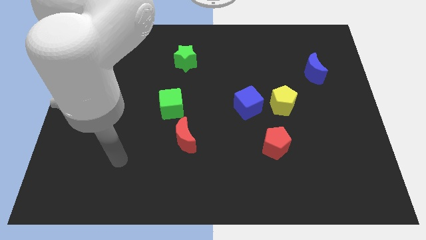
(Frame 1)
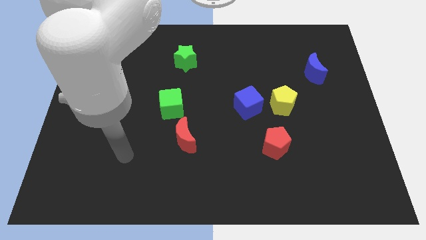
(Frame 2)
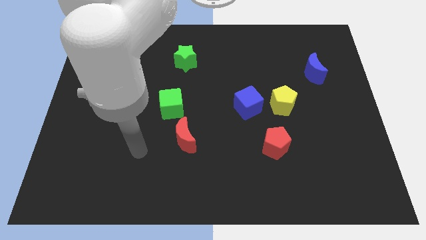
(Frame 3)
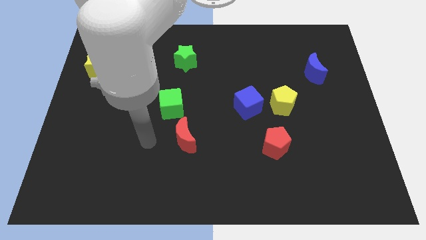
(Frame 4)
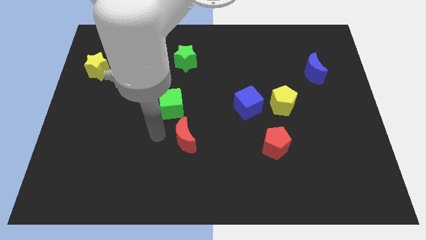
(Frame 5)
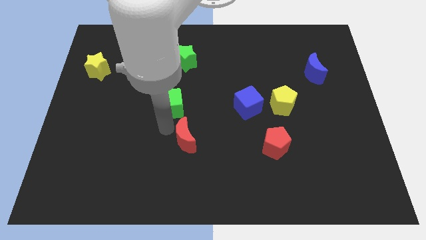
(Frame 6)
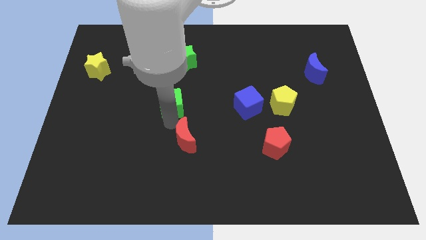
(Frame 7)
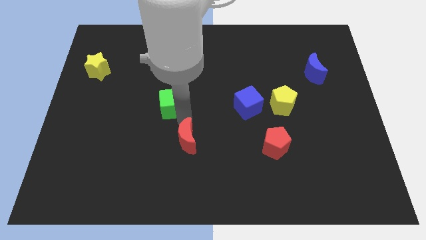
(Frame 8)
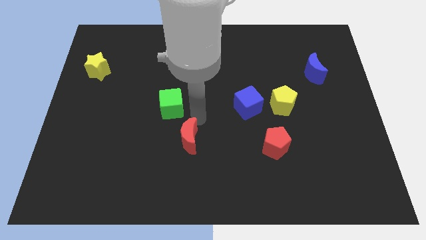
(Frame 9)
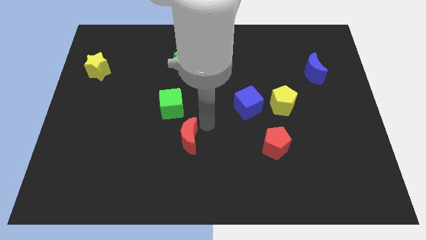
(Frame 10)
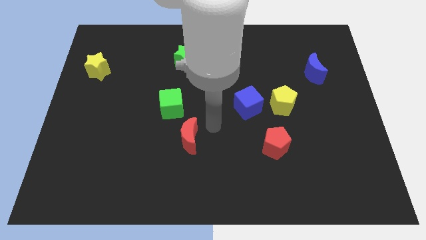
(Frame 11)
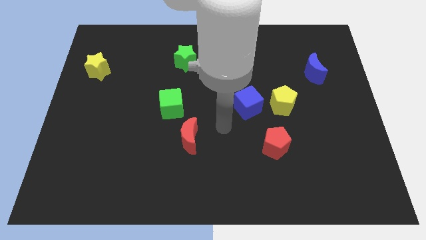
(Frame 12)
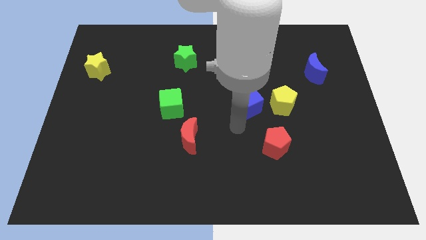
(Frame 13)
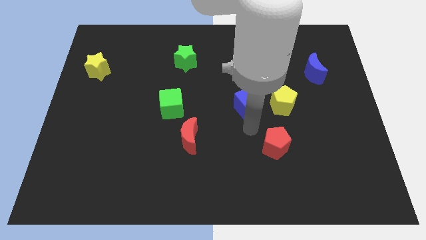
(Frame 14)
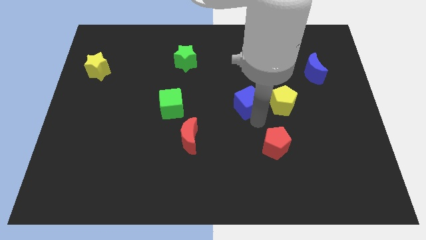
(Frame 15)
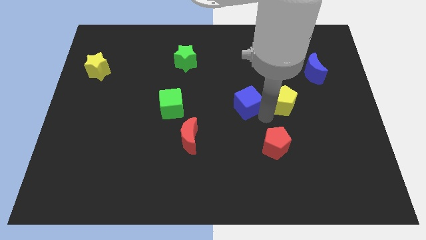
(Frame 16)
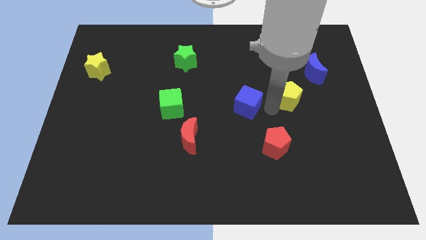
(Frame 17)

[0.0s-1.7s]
pull the blue cube apart from the yellow pentagon

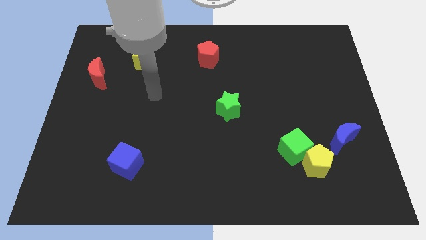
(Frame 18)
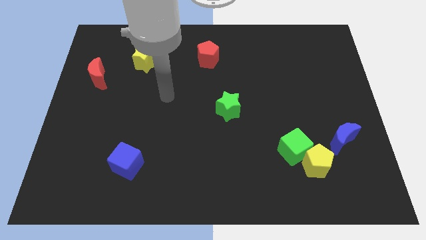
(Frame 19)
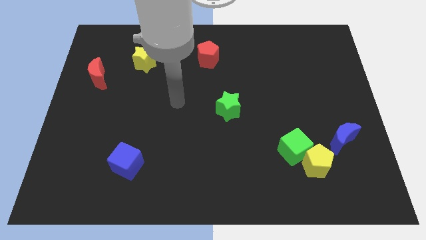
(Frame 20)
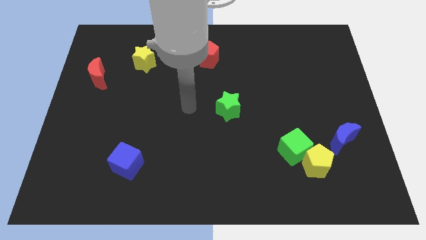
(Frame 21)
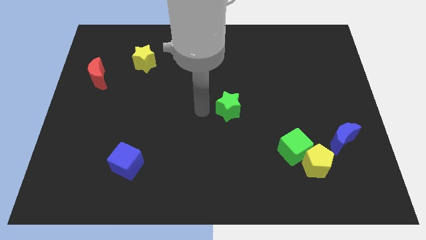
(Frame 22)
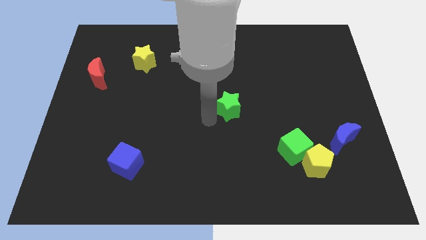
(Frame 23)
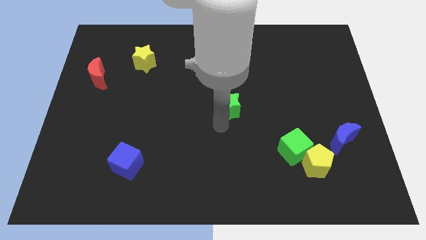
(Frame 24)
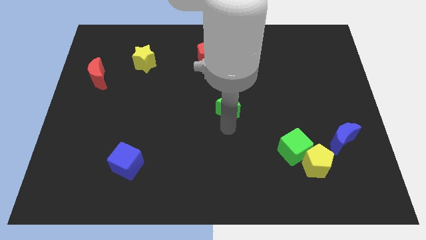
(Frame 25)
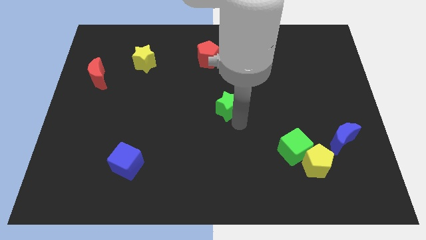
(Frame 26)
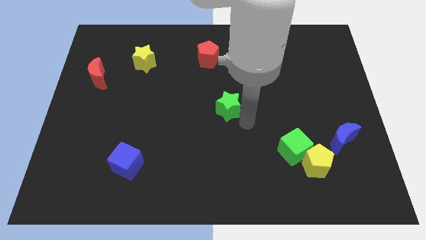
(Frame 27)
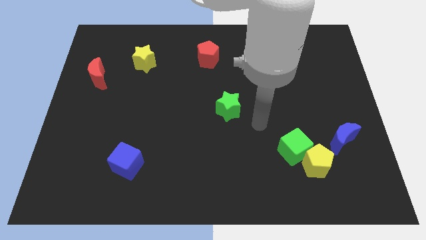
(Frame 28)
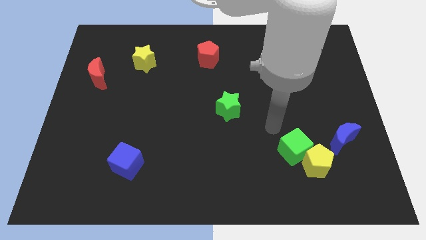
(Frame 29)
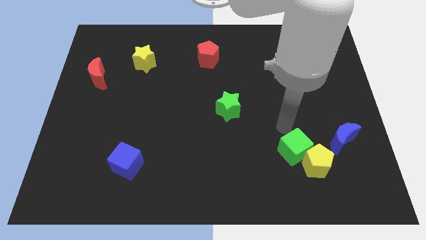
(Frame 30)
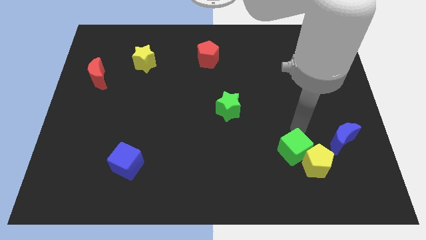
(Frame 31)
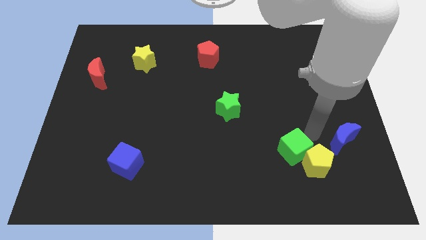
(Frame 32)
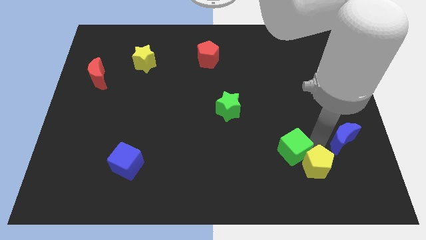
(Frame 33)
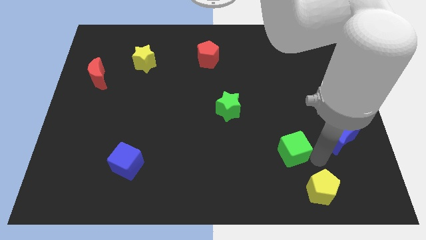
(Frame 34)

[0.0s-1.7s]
pull the green cube apart from the yellow pentagon

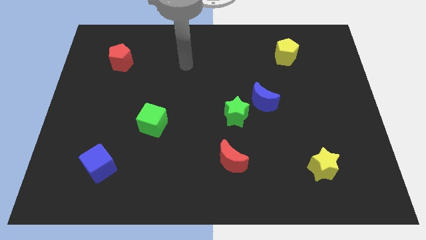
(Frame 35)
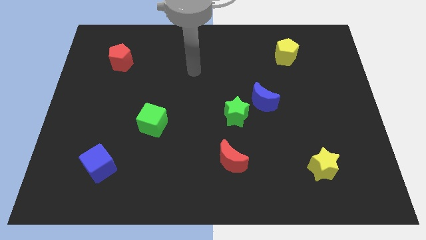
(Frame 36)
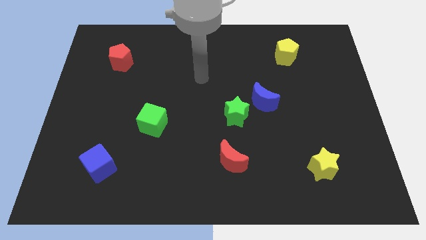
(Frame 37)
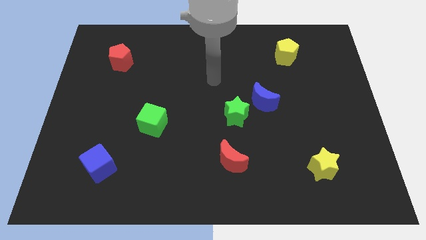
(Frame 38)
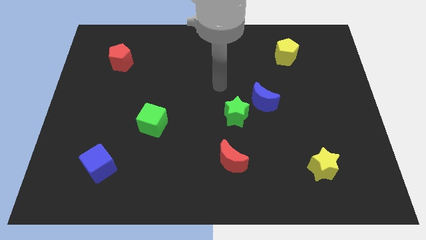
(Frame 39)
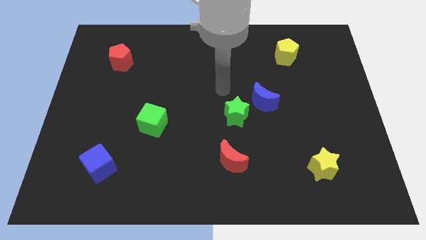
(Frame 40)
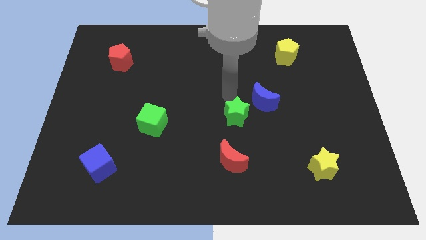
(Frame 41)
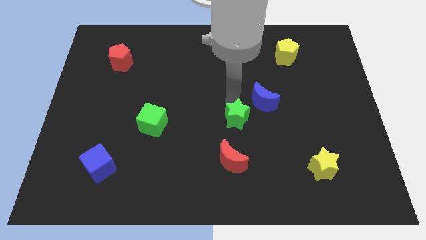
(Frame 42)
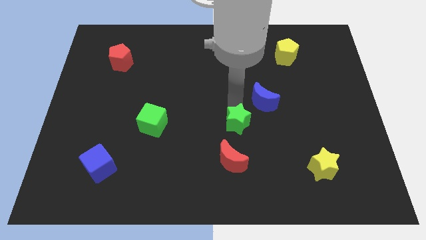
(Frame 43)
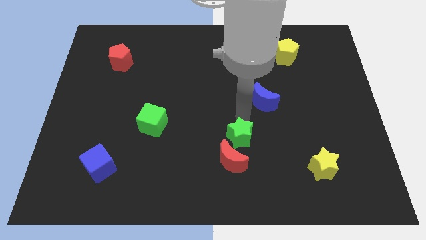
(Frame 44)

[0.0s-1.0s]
pull the blue moon apart from the green star

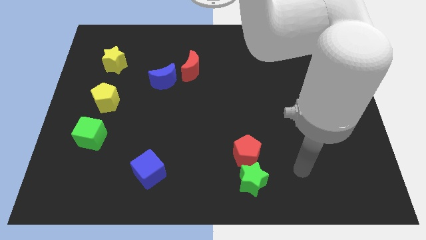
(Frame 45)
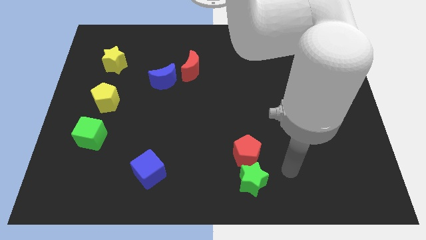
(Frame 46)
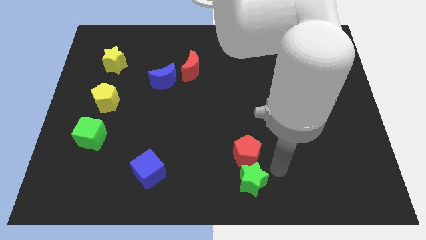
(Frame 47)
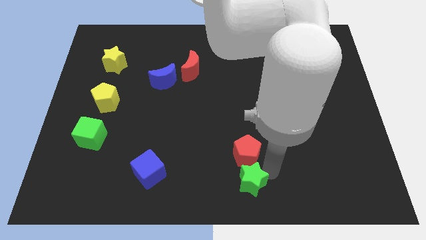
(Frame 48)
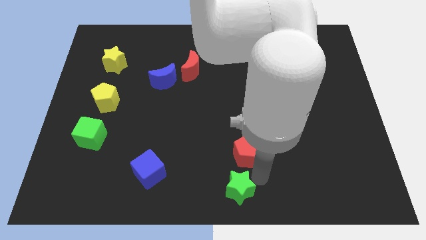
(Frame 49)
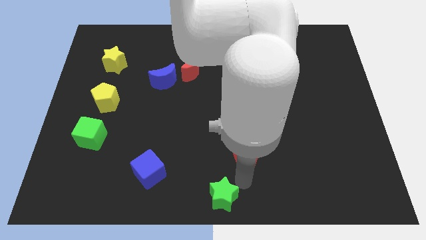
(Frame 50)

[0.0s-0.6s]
pull the red pentagon apart from the green star

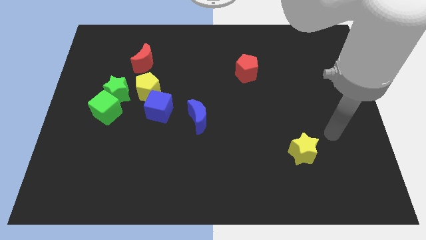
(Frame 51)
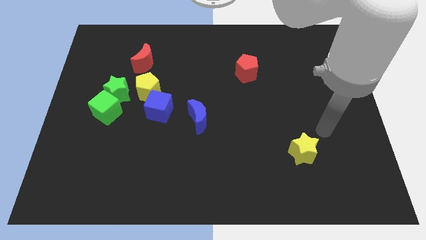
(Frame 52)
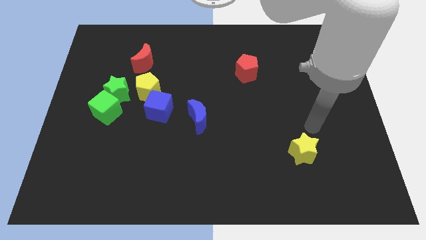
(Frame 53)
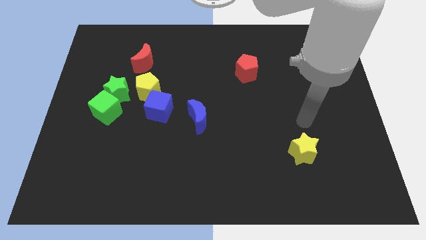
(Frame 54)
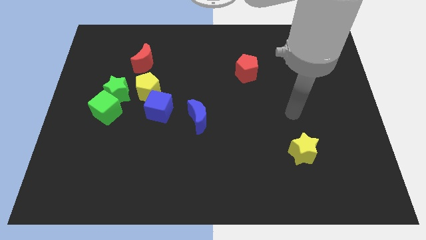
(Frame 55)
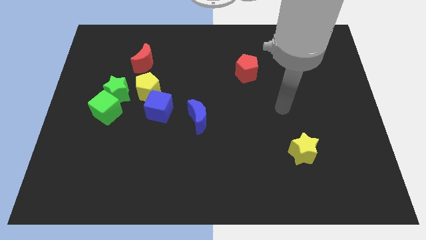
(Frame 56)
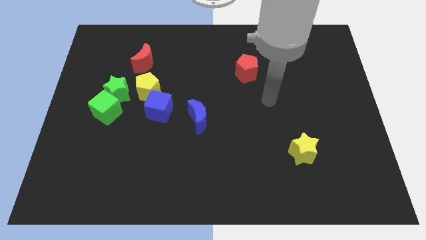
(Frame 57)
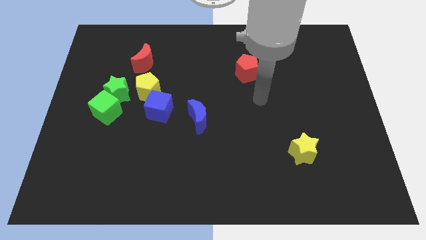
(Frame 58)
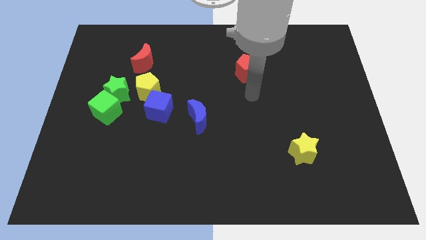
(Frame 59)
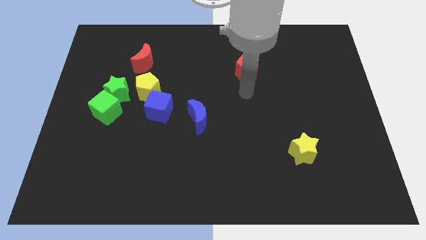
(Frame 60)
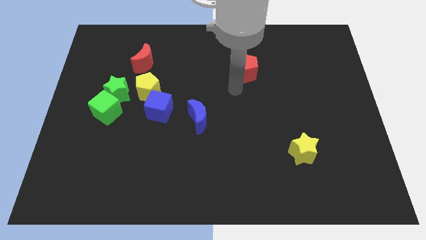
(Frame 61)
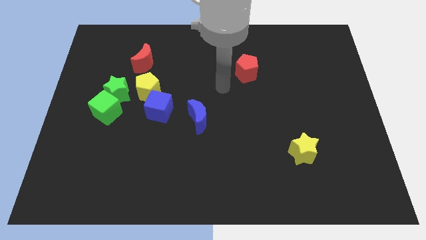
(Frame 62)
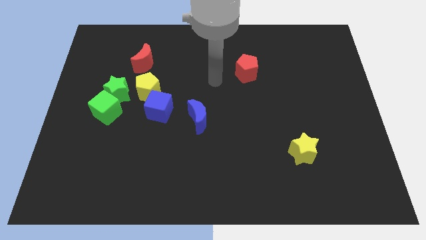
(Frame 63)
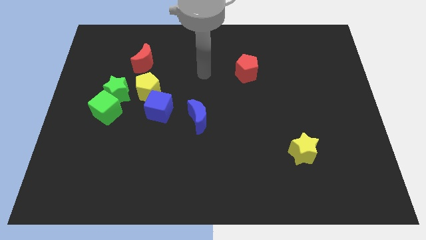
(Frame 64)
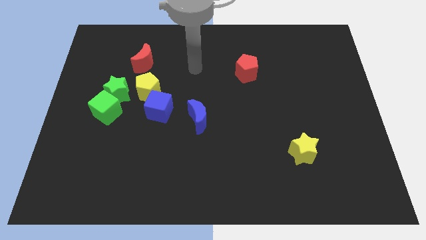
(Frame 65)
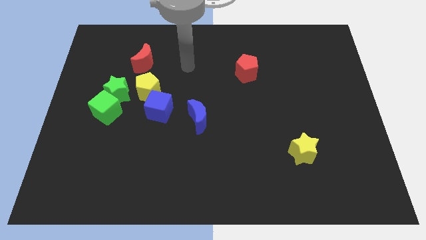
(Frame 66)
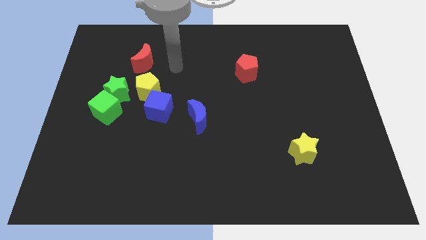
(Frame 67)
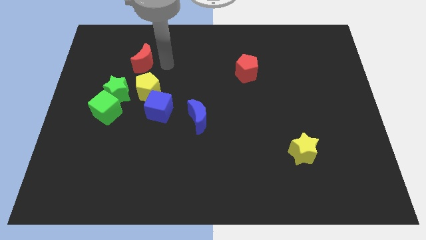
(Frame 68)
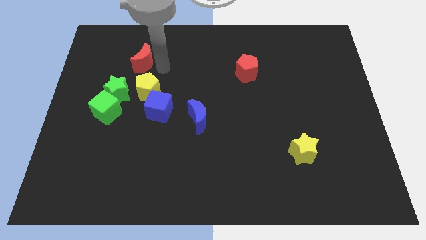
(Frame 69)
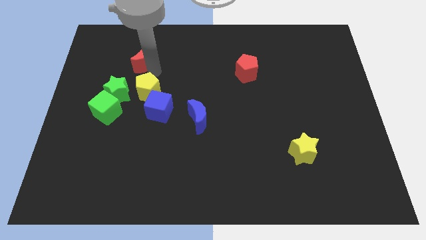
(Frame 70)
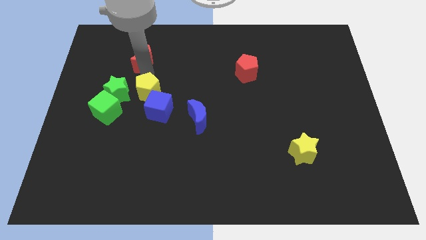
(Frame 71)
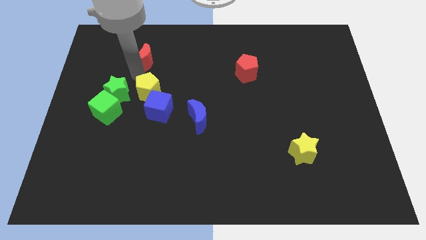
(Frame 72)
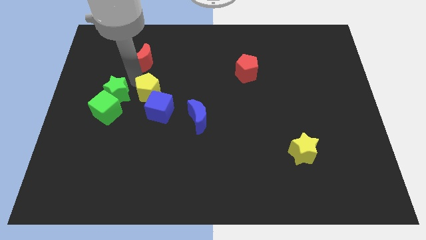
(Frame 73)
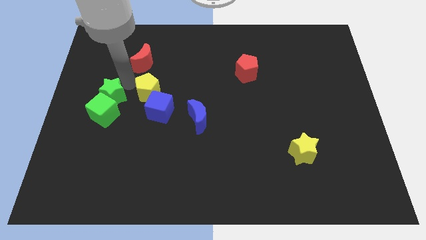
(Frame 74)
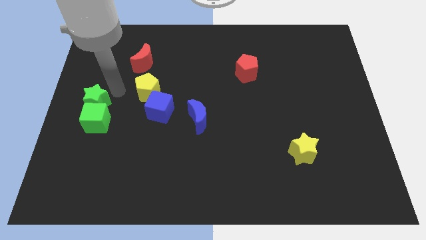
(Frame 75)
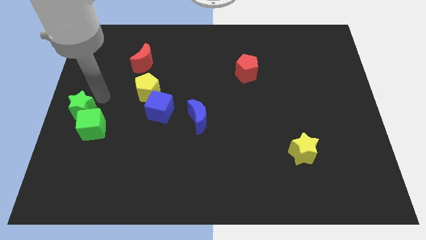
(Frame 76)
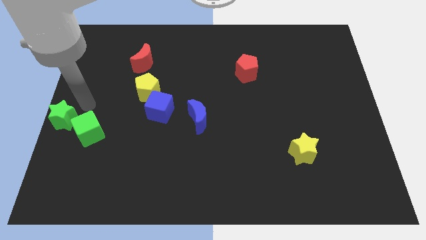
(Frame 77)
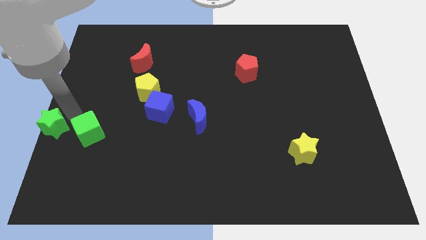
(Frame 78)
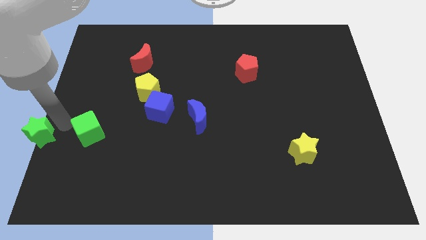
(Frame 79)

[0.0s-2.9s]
move the green cube away from the green star

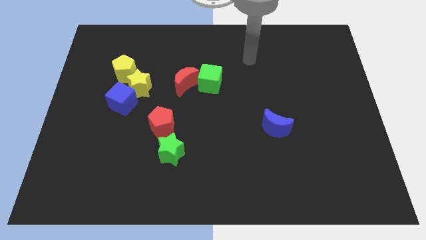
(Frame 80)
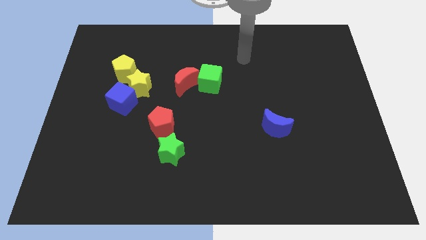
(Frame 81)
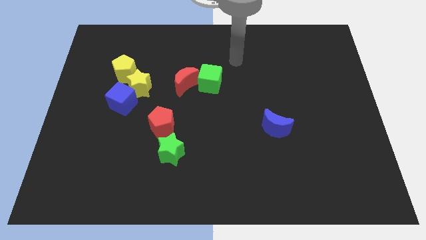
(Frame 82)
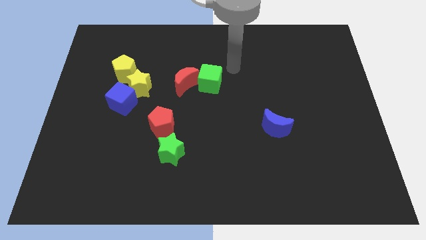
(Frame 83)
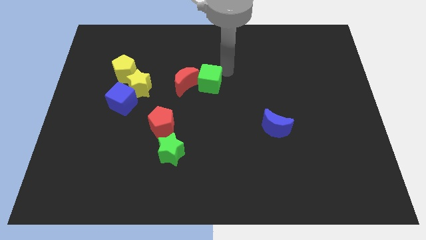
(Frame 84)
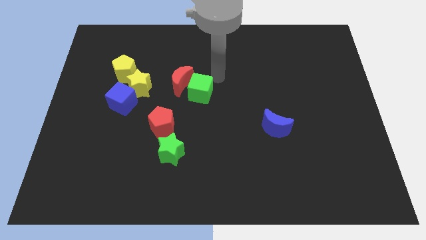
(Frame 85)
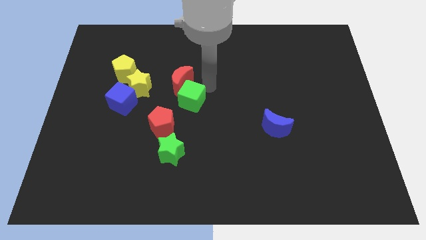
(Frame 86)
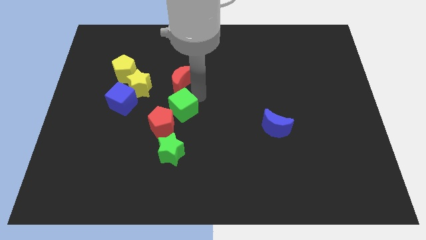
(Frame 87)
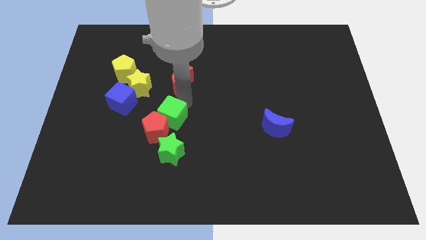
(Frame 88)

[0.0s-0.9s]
pull the red moon apart from the green cube

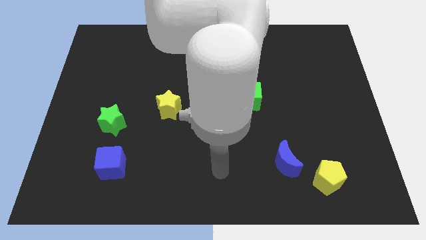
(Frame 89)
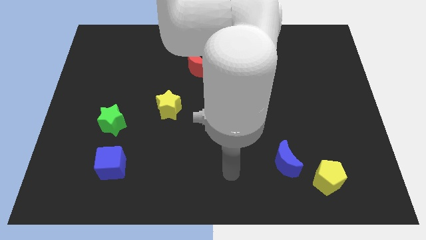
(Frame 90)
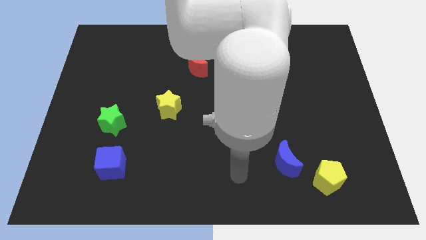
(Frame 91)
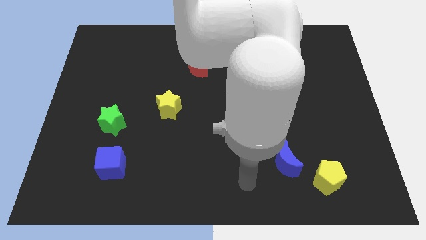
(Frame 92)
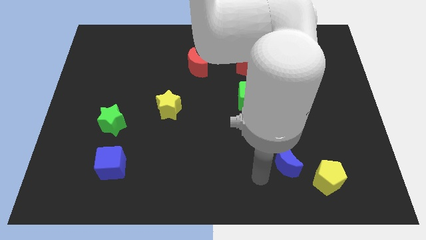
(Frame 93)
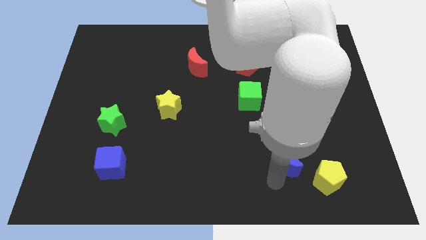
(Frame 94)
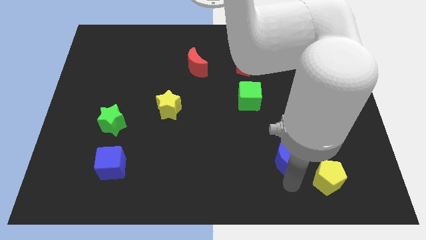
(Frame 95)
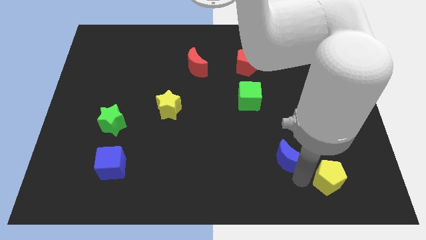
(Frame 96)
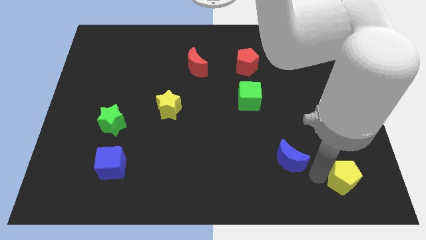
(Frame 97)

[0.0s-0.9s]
move the blue moon away from the yellow pentagon
